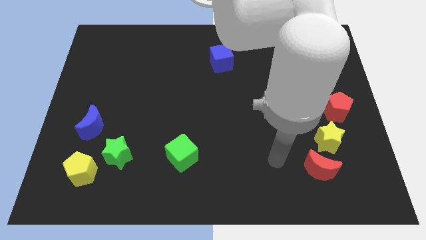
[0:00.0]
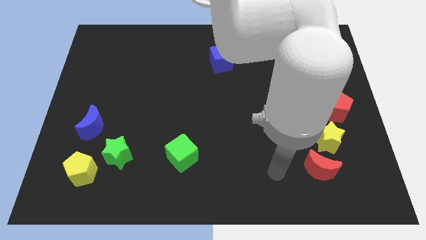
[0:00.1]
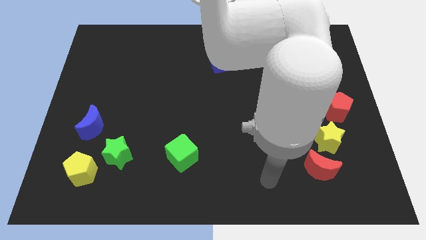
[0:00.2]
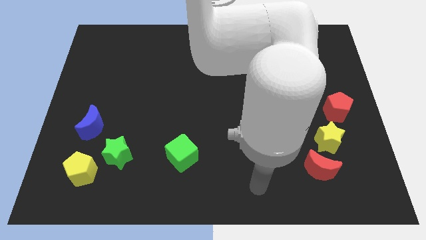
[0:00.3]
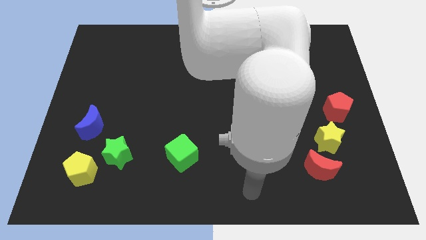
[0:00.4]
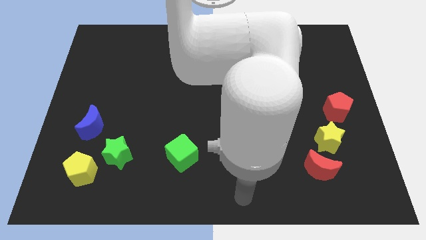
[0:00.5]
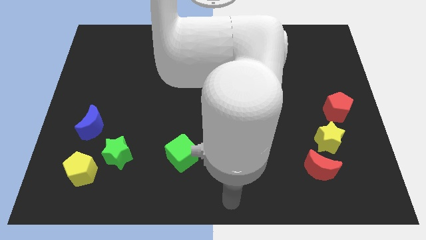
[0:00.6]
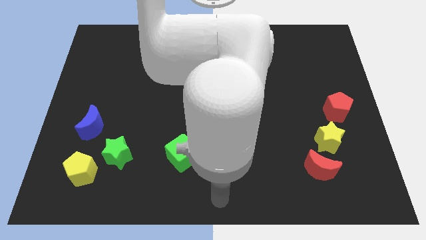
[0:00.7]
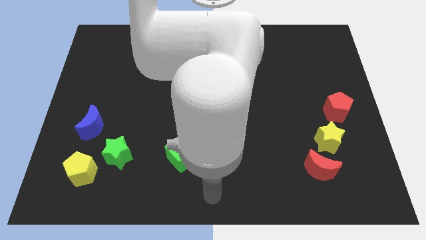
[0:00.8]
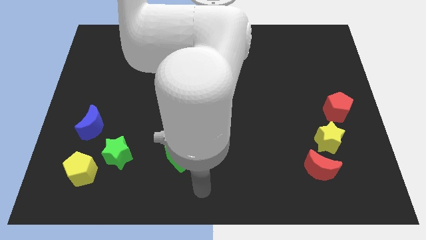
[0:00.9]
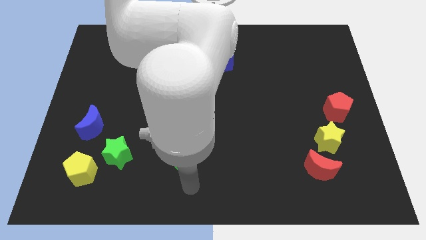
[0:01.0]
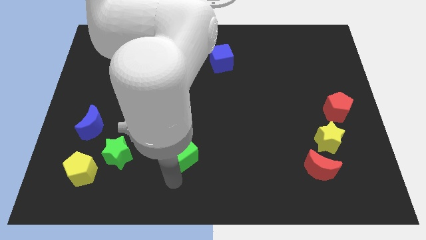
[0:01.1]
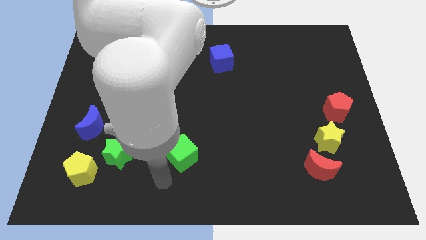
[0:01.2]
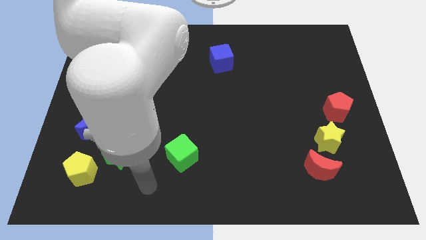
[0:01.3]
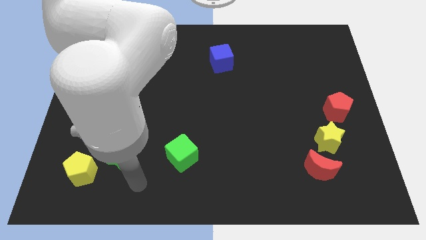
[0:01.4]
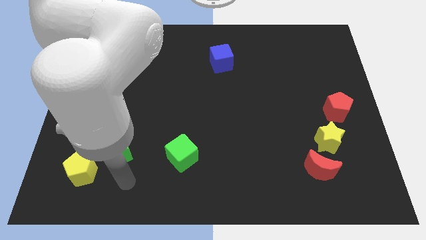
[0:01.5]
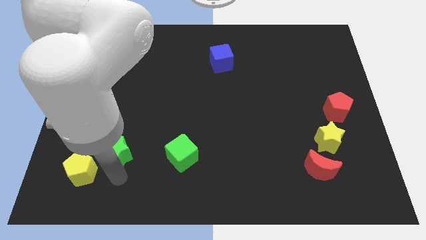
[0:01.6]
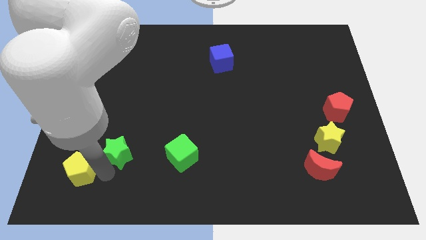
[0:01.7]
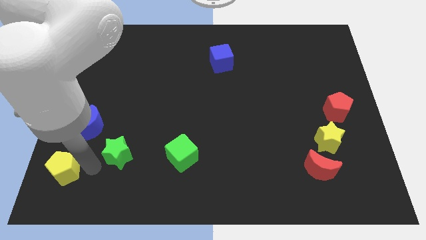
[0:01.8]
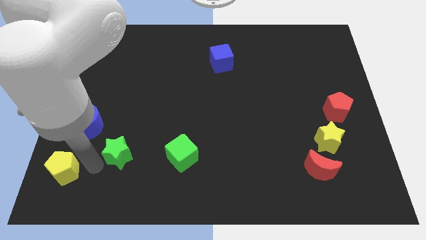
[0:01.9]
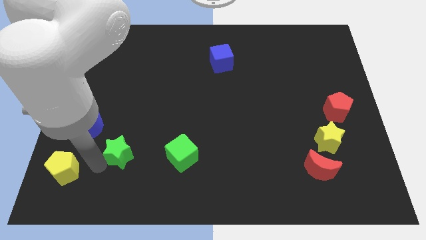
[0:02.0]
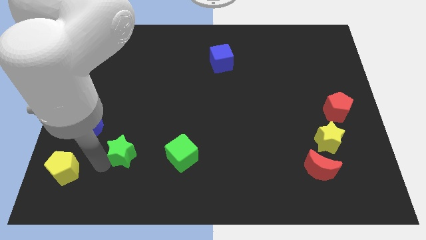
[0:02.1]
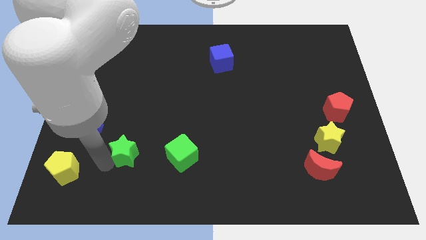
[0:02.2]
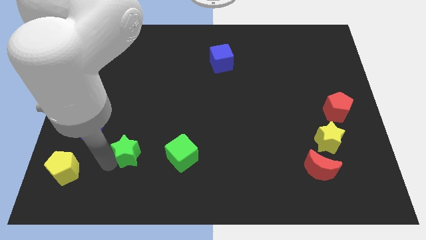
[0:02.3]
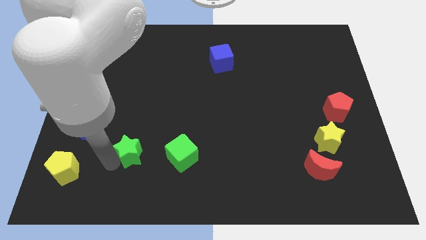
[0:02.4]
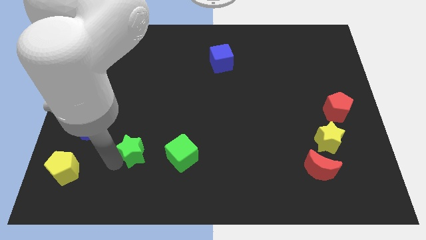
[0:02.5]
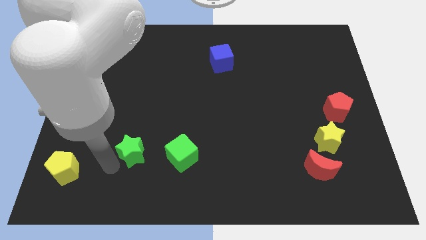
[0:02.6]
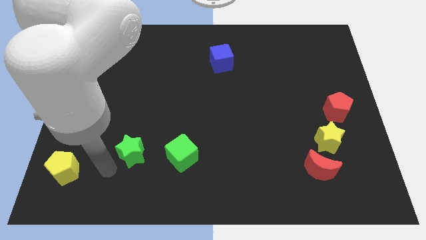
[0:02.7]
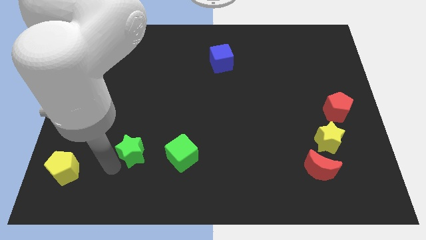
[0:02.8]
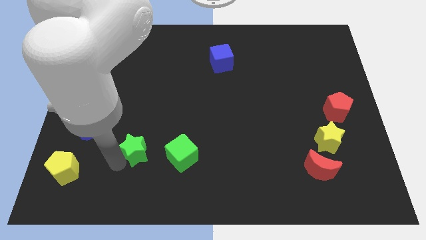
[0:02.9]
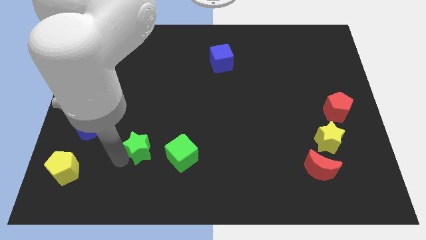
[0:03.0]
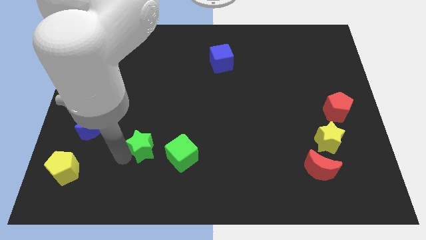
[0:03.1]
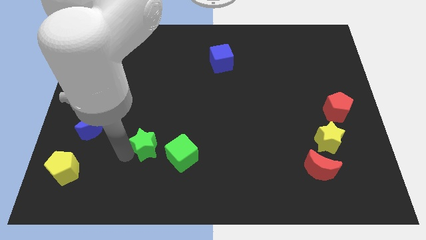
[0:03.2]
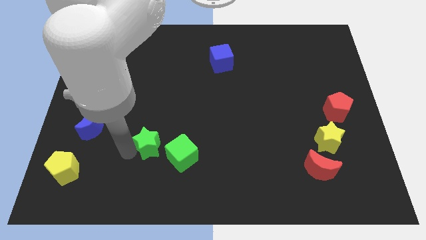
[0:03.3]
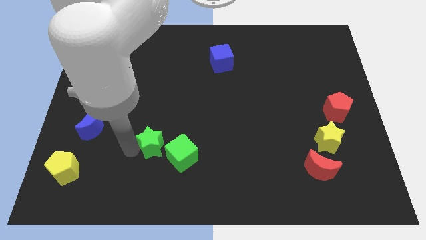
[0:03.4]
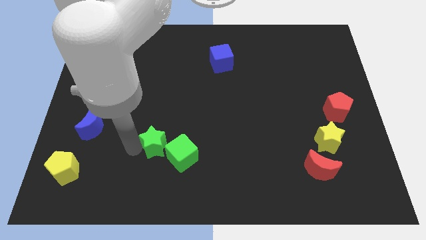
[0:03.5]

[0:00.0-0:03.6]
slightly push the green star to the right

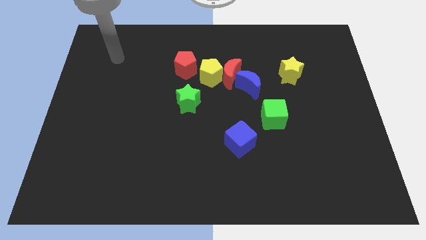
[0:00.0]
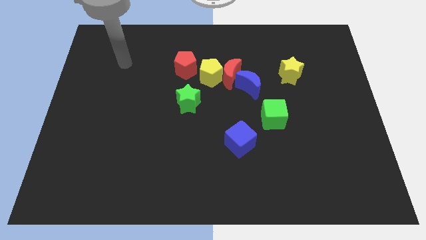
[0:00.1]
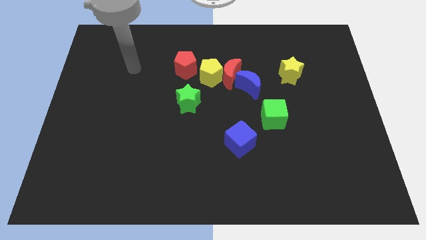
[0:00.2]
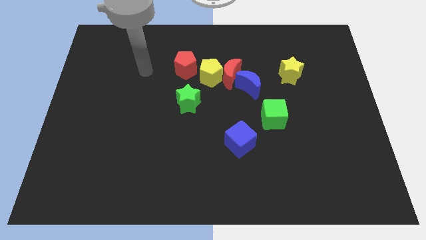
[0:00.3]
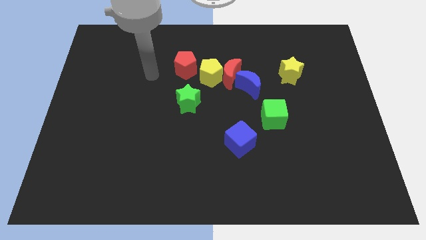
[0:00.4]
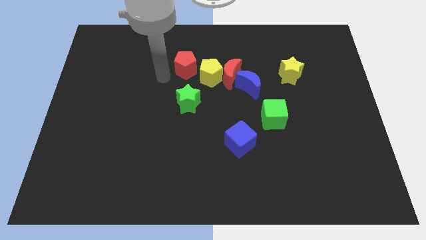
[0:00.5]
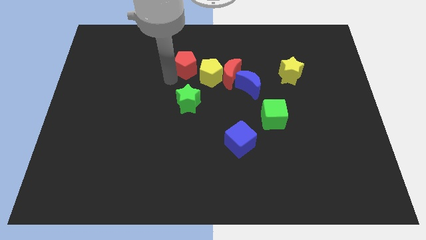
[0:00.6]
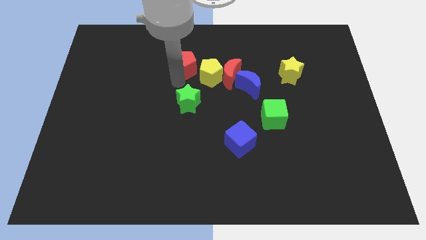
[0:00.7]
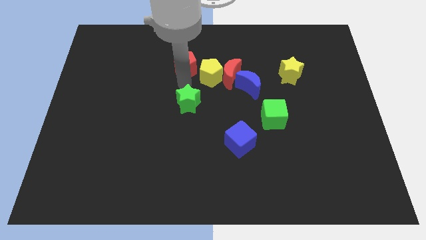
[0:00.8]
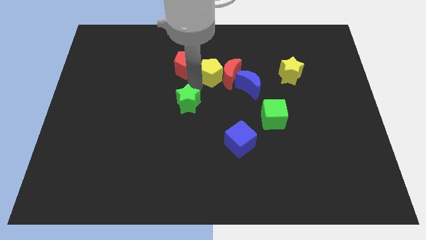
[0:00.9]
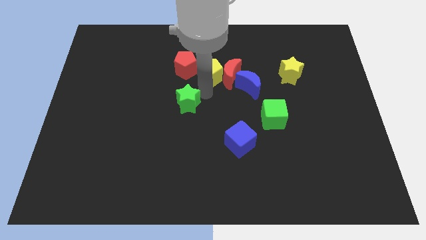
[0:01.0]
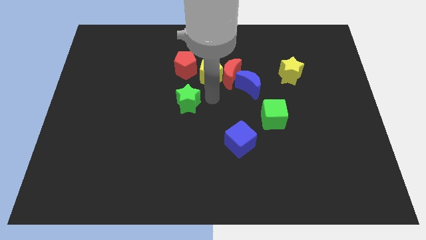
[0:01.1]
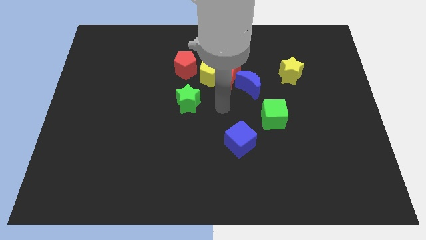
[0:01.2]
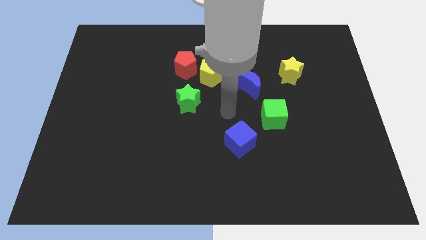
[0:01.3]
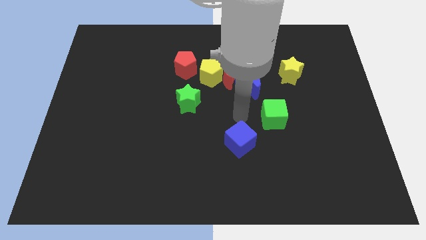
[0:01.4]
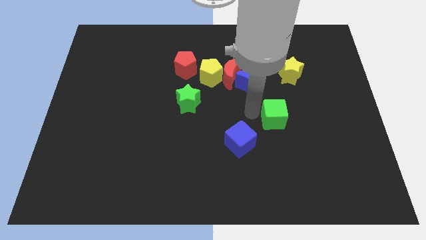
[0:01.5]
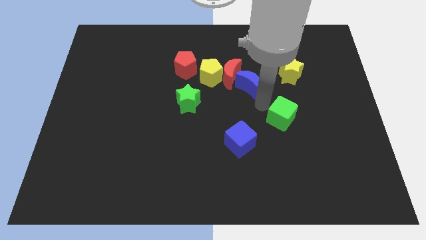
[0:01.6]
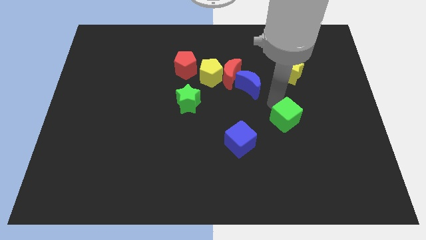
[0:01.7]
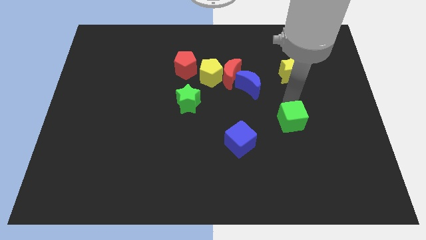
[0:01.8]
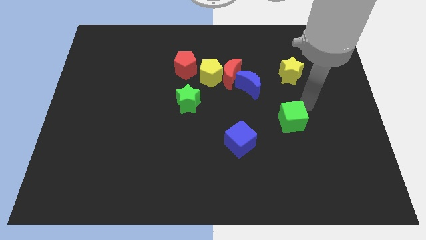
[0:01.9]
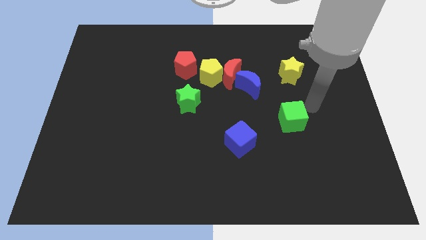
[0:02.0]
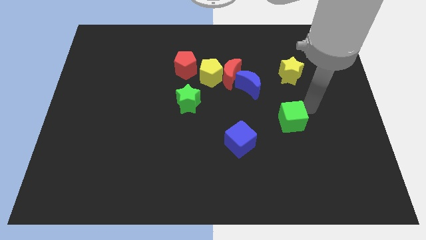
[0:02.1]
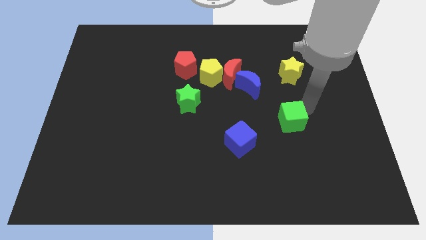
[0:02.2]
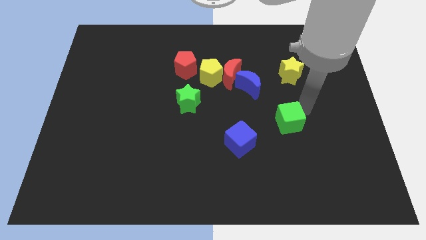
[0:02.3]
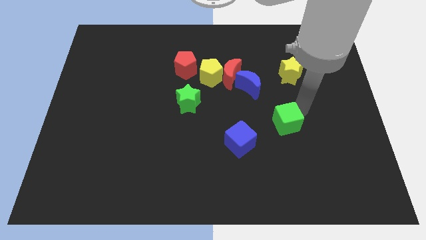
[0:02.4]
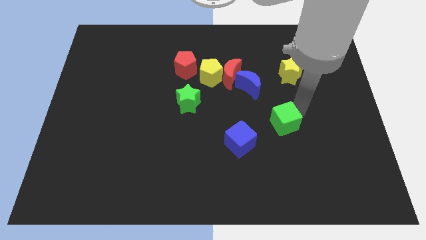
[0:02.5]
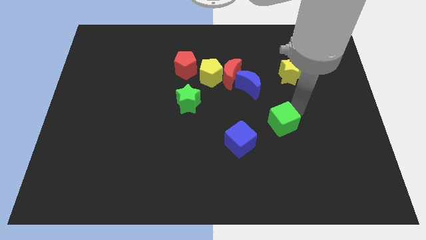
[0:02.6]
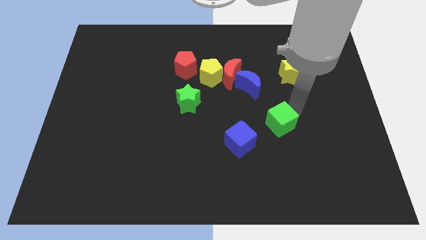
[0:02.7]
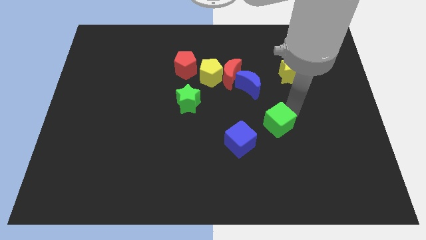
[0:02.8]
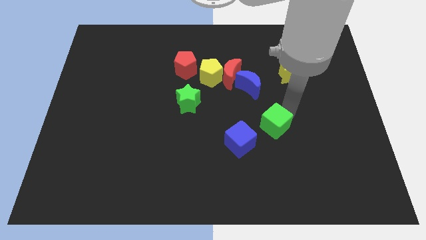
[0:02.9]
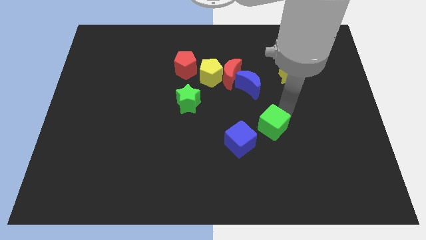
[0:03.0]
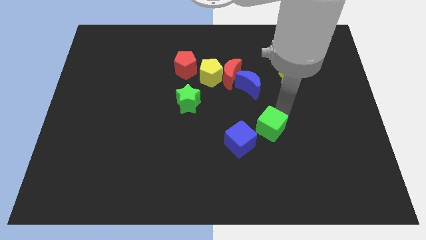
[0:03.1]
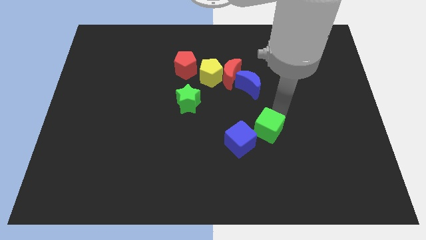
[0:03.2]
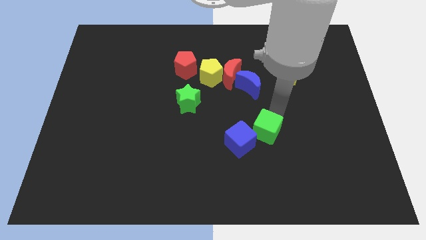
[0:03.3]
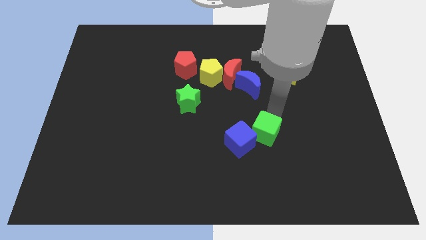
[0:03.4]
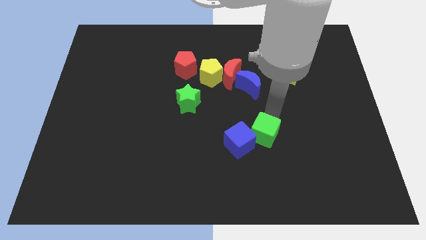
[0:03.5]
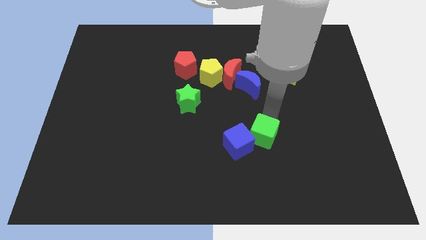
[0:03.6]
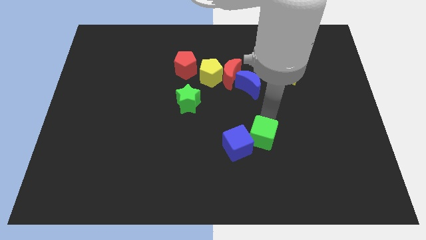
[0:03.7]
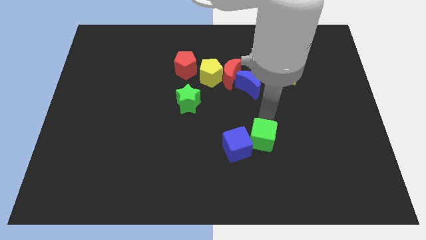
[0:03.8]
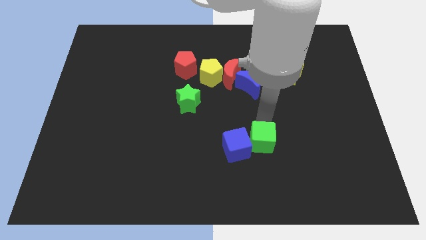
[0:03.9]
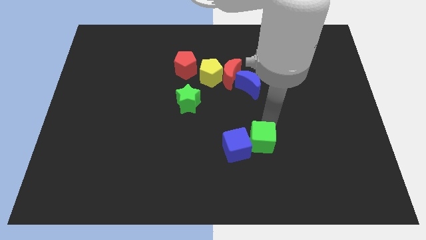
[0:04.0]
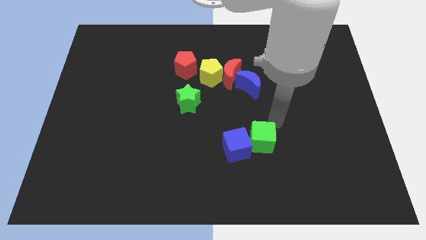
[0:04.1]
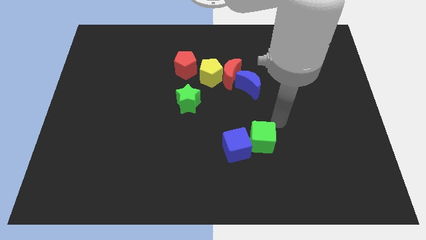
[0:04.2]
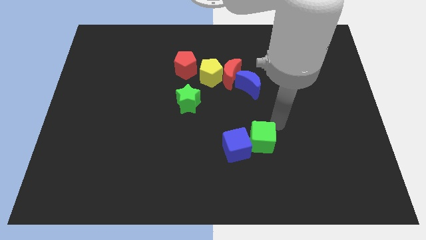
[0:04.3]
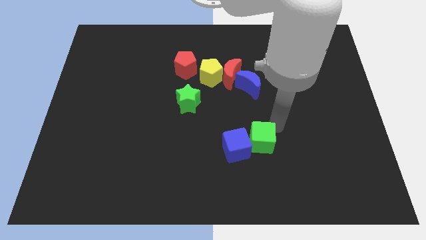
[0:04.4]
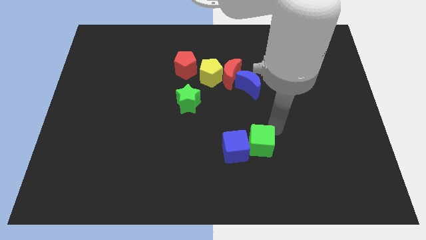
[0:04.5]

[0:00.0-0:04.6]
slightly slide the green cube downwards and left diagonally
